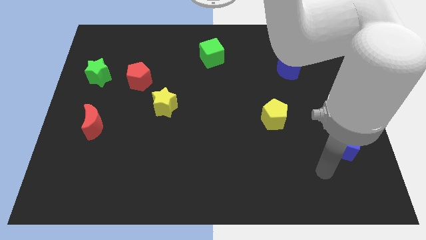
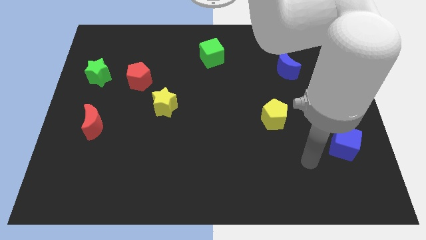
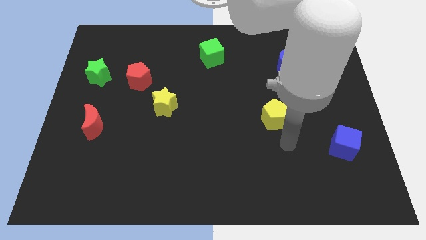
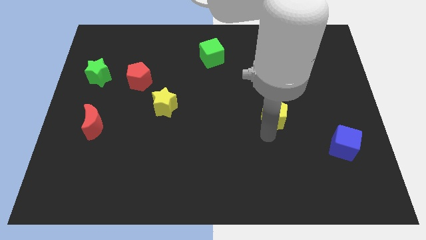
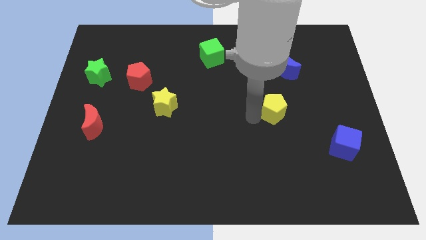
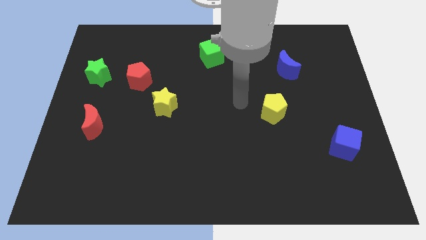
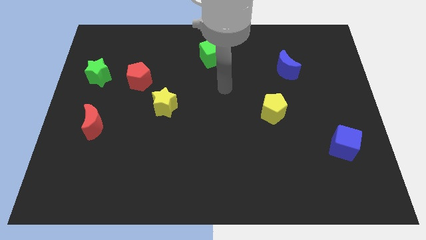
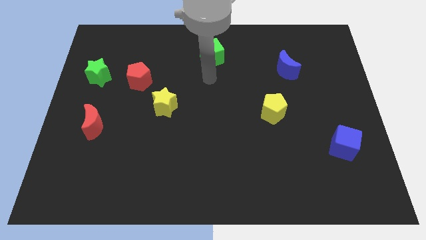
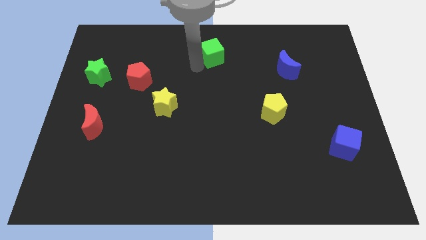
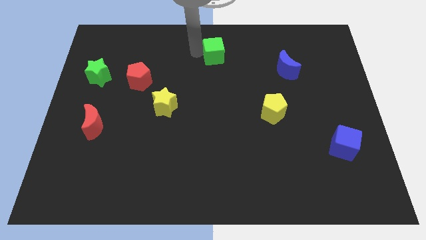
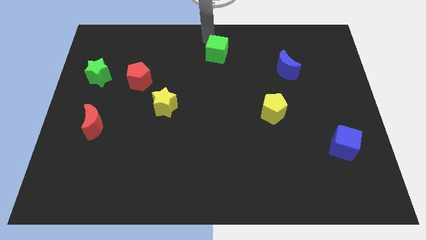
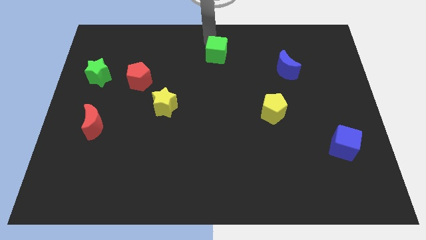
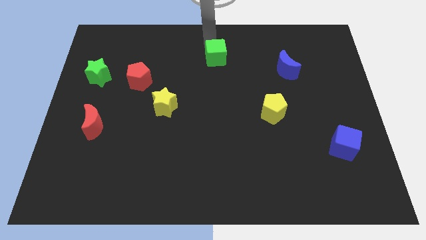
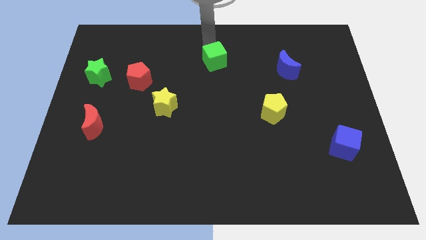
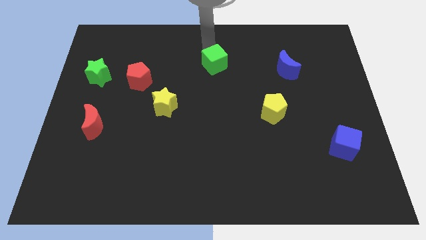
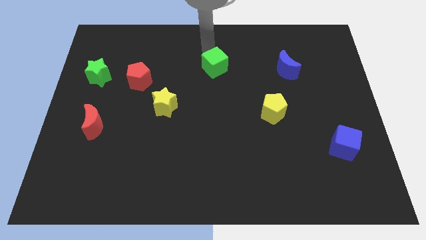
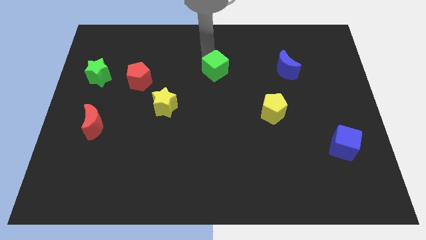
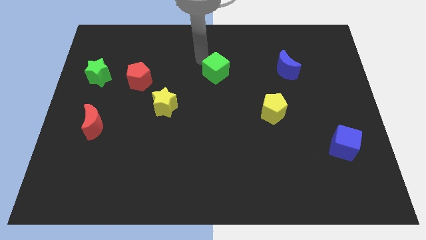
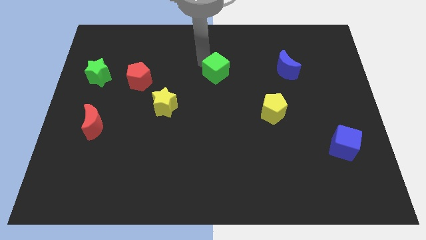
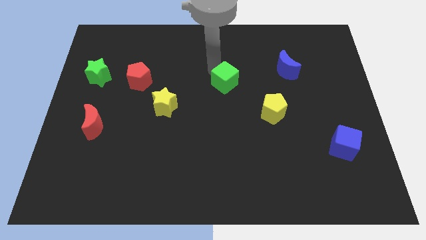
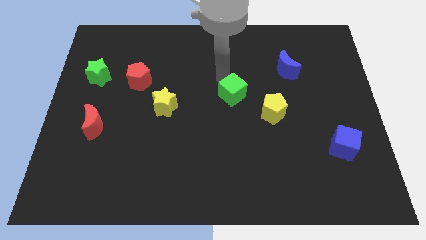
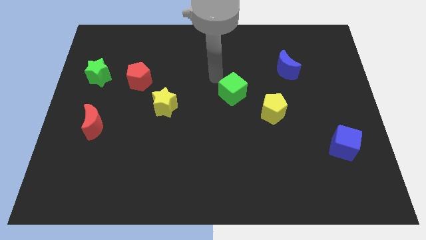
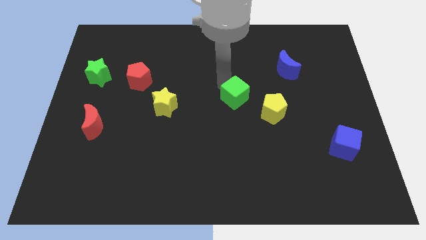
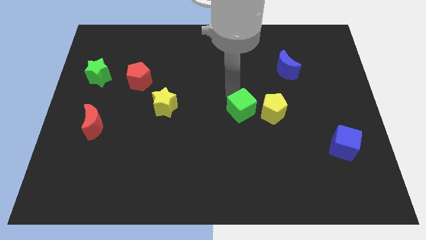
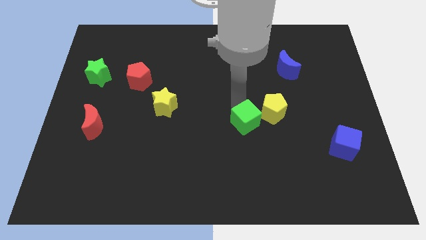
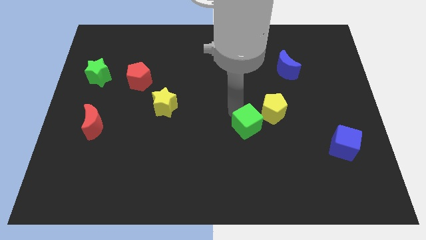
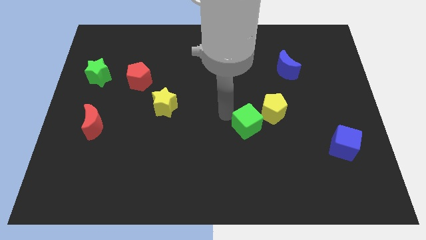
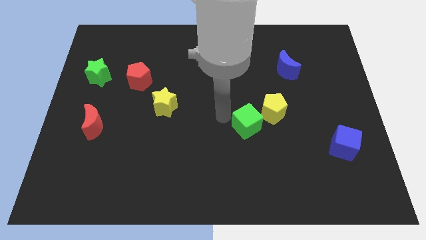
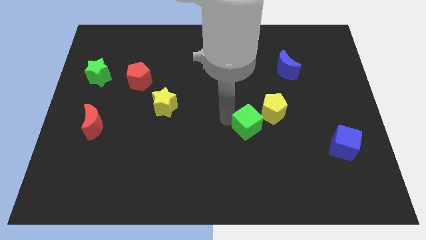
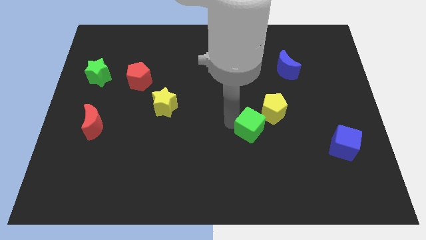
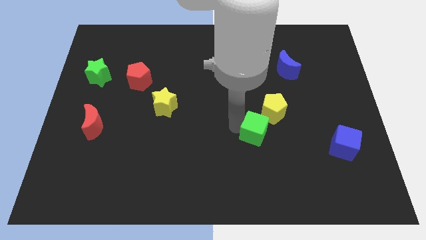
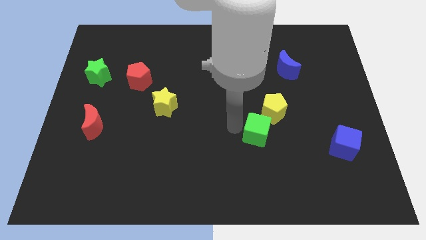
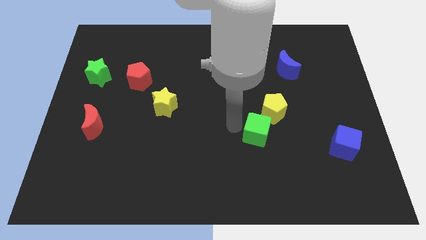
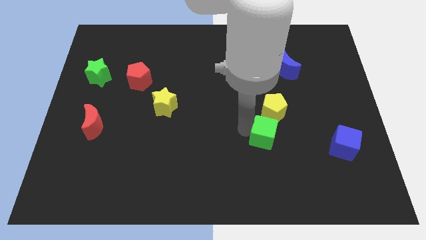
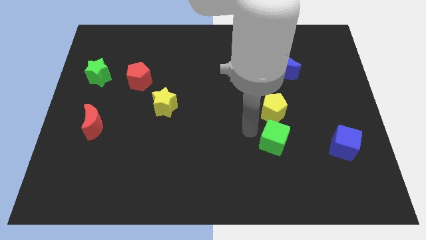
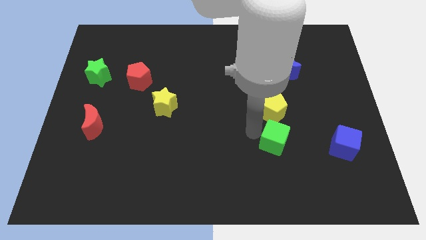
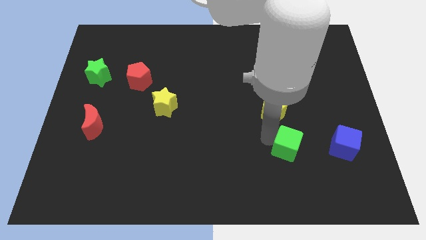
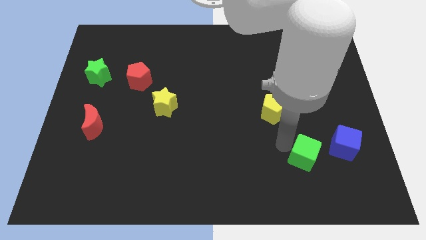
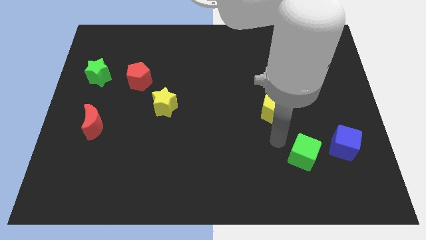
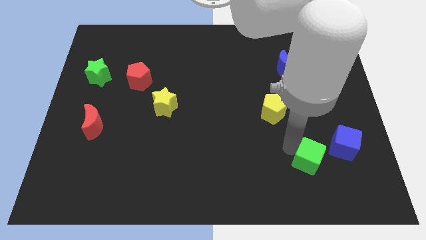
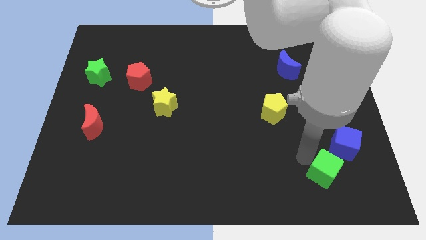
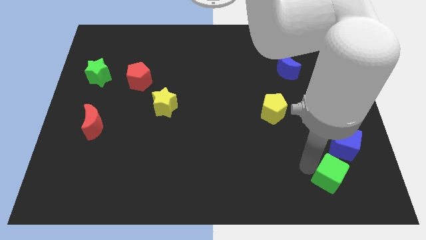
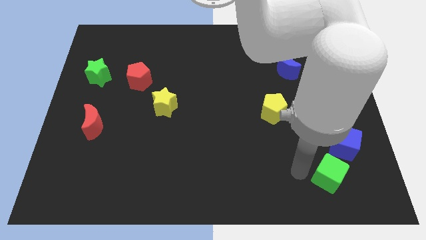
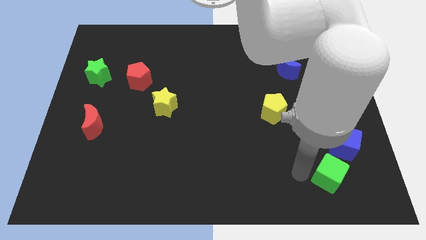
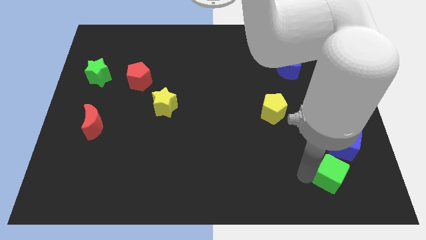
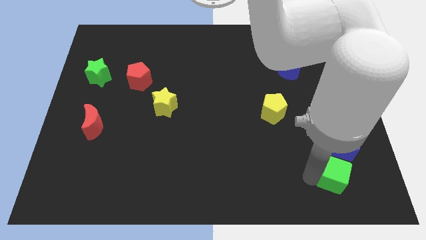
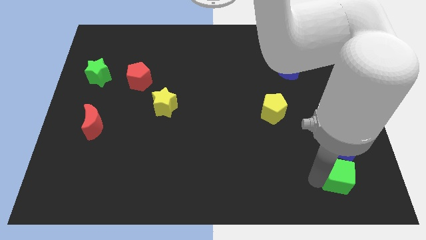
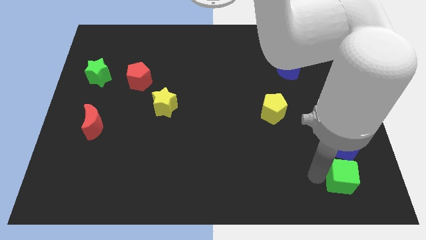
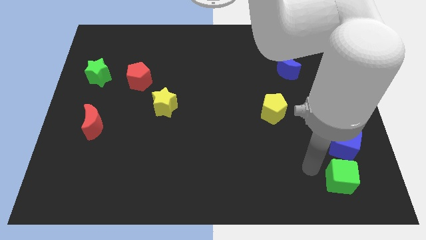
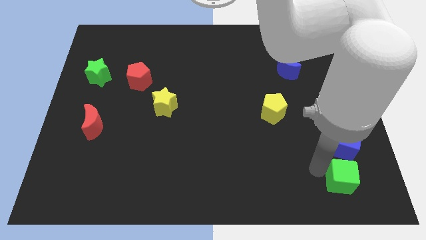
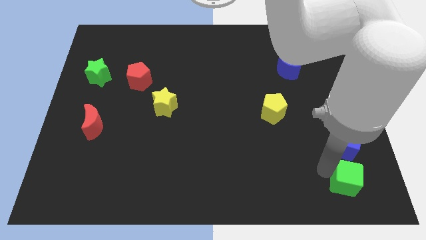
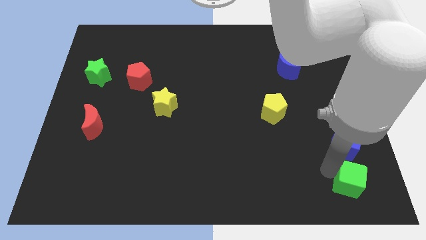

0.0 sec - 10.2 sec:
move the green cube to the lower right corner

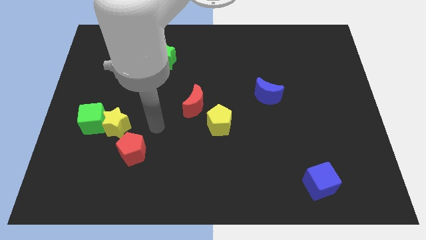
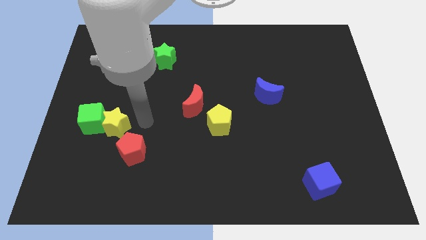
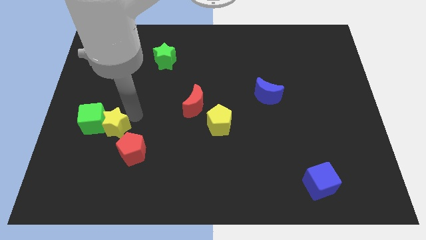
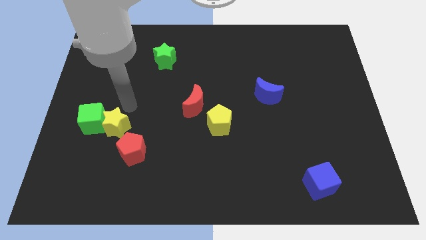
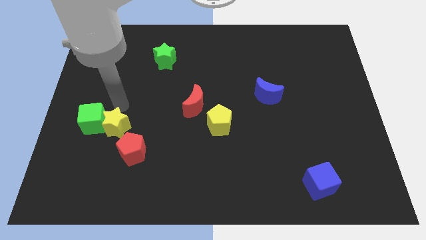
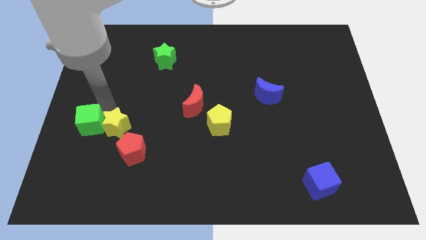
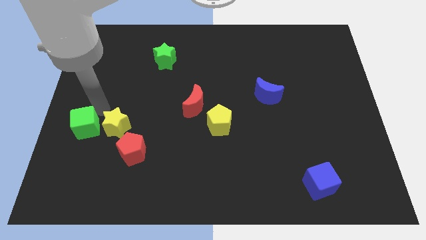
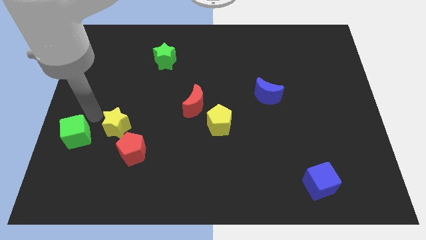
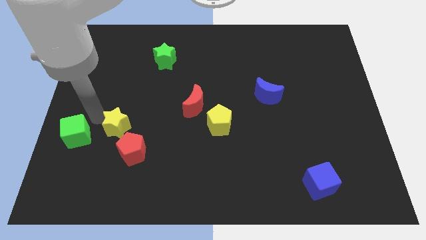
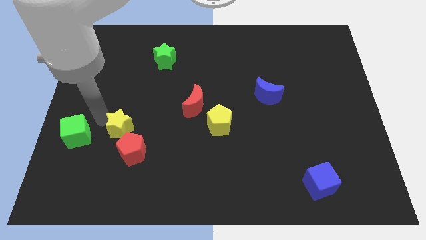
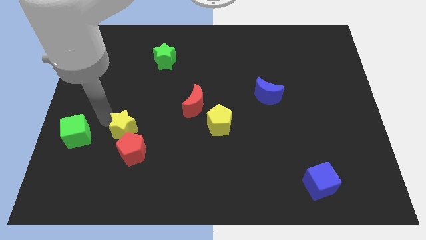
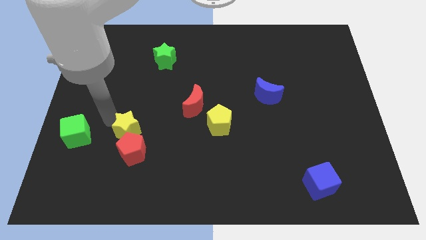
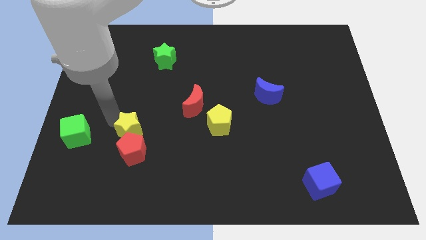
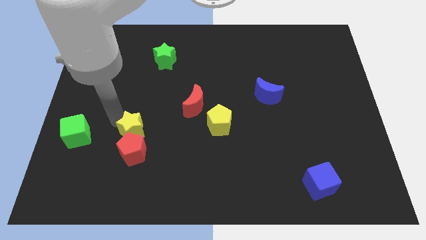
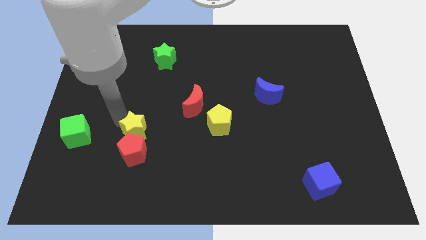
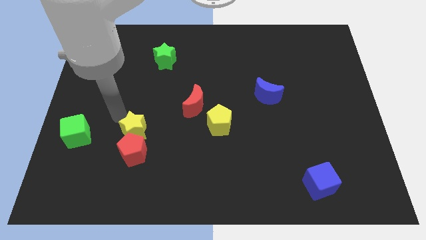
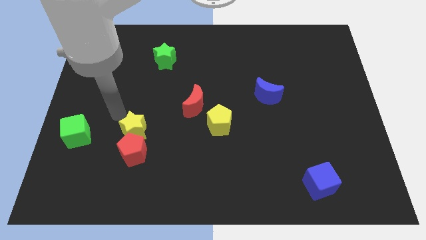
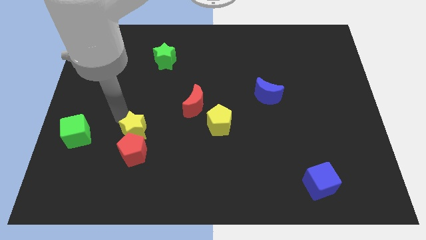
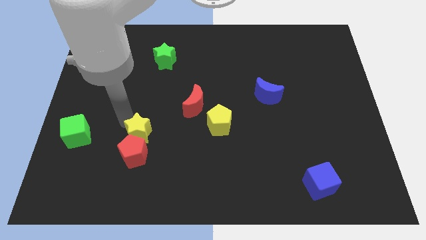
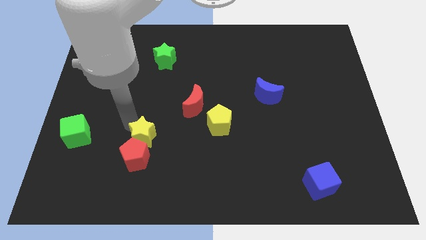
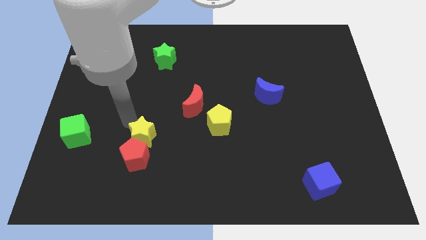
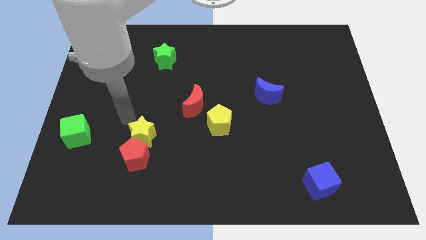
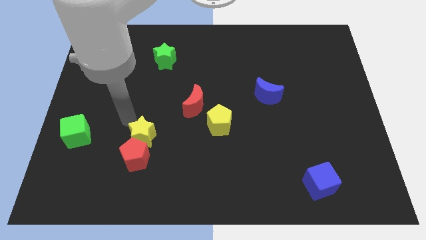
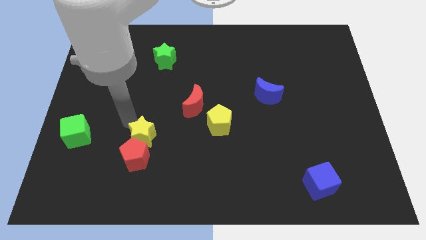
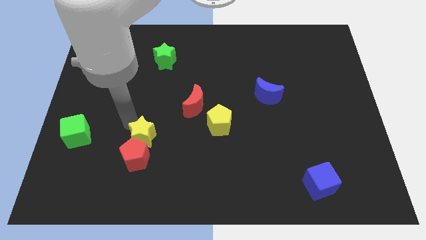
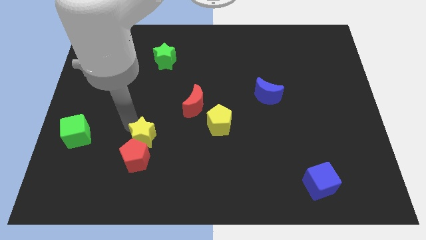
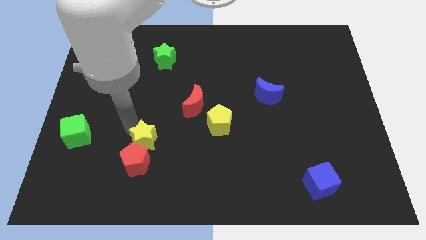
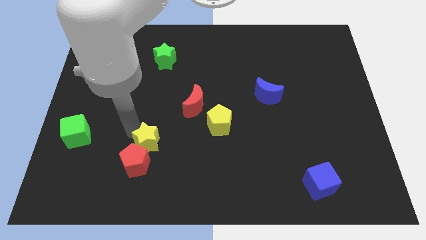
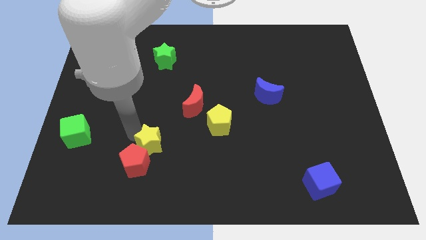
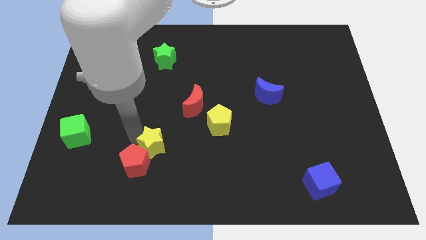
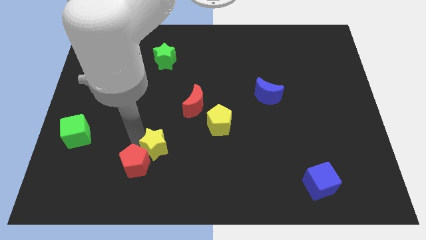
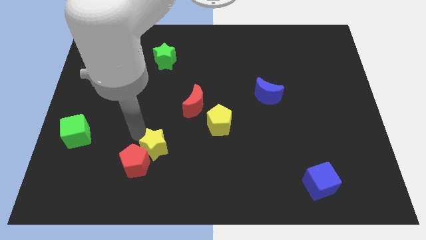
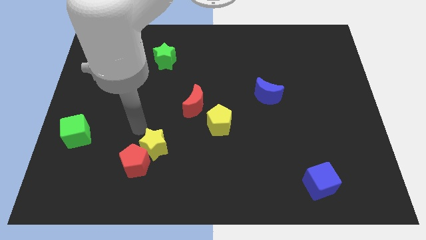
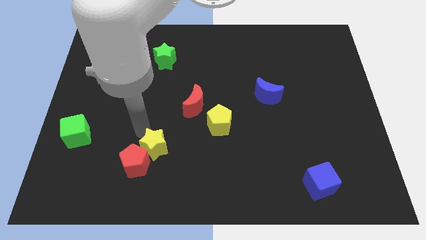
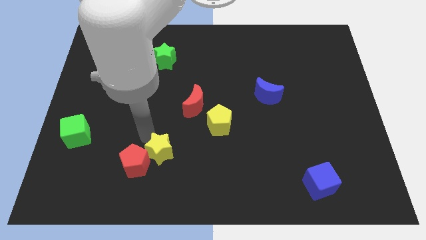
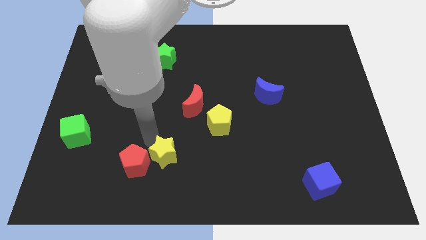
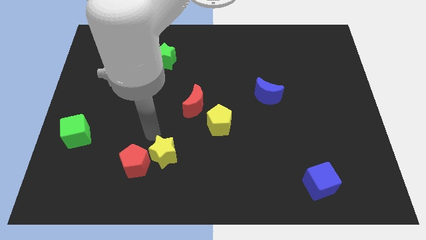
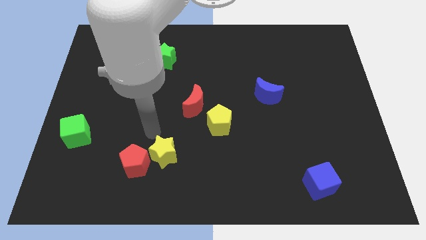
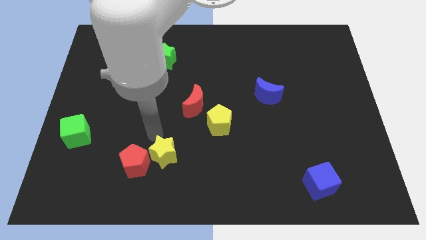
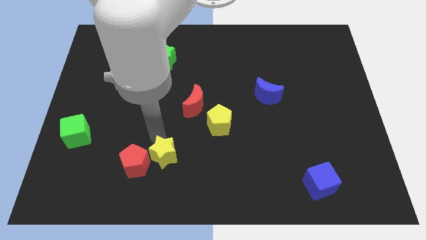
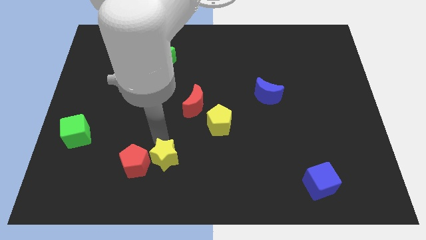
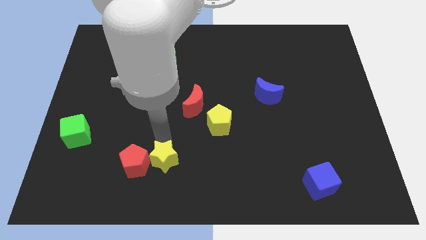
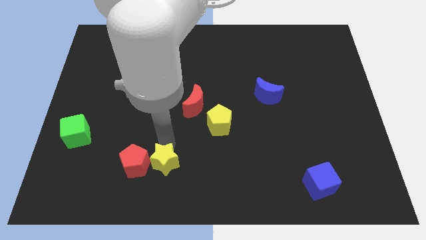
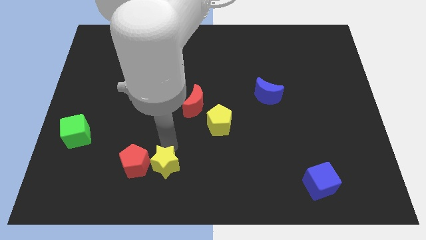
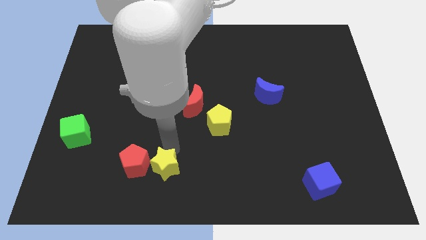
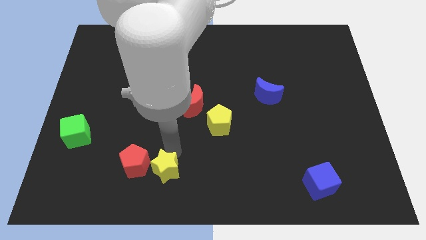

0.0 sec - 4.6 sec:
put the yellow star to the bottom
